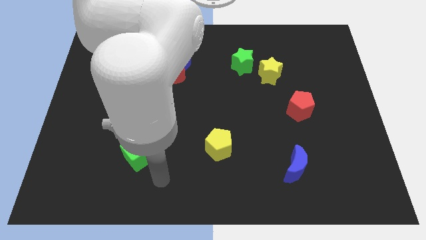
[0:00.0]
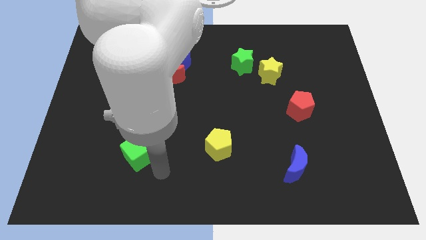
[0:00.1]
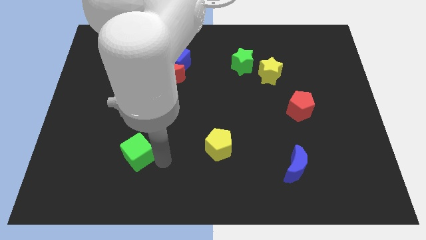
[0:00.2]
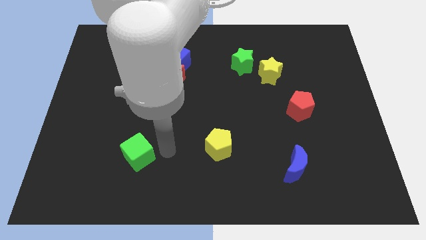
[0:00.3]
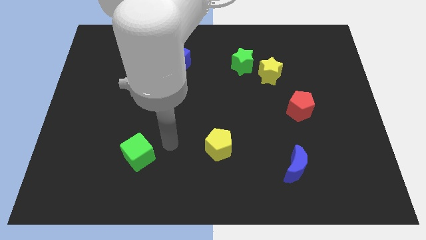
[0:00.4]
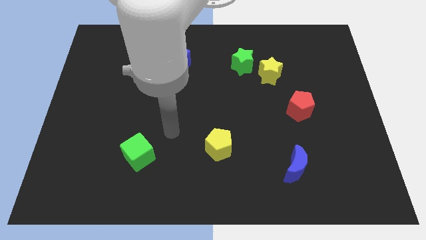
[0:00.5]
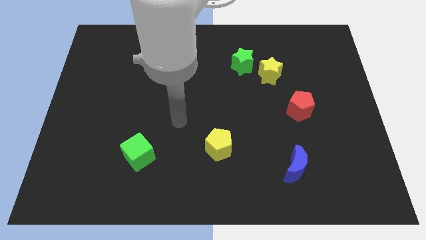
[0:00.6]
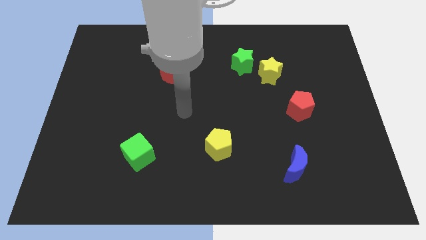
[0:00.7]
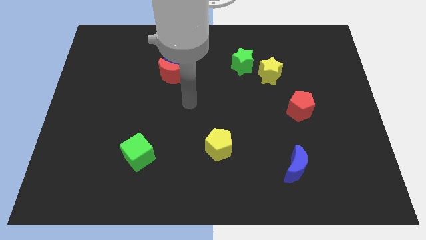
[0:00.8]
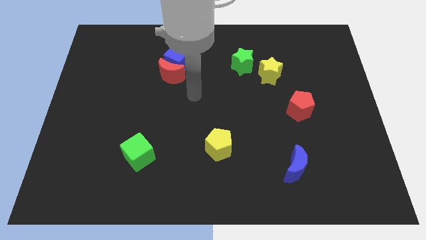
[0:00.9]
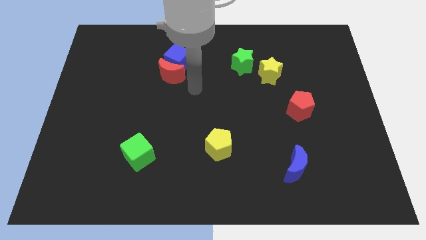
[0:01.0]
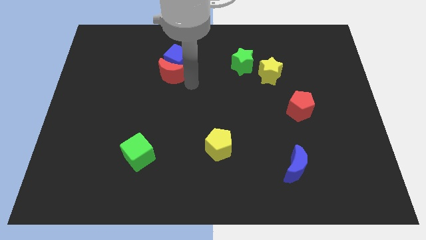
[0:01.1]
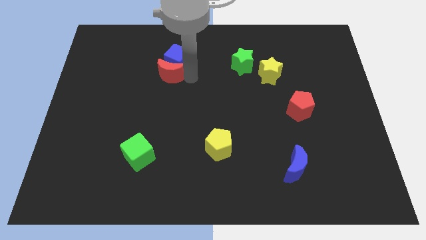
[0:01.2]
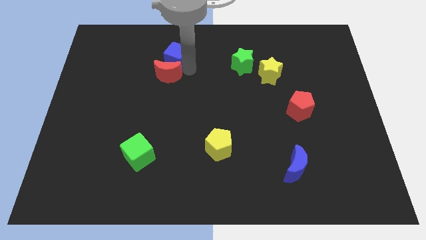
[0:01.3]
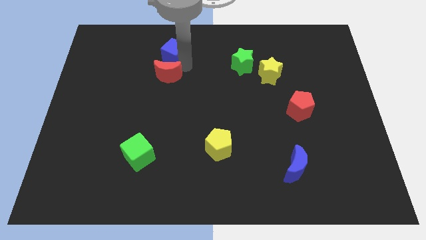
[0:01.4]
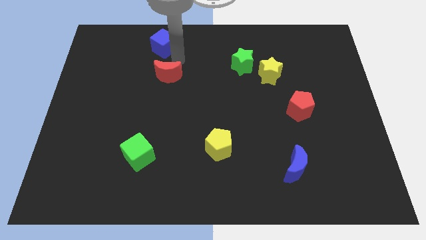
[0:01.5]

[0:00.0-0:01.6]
move the red moon away from the blue cube

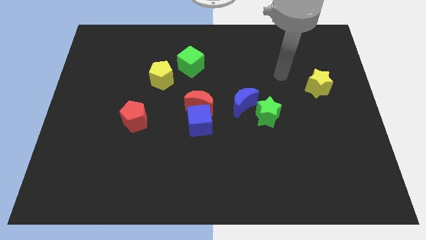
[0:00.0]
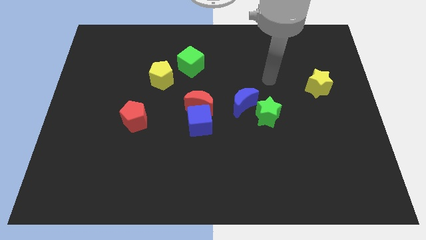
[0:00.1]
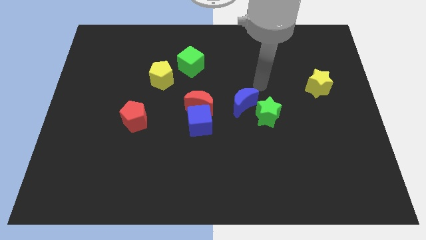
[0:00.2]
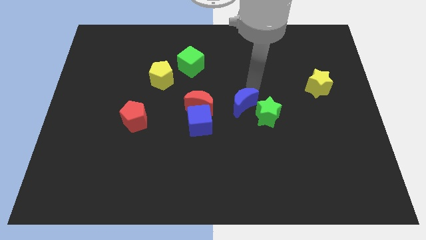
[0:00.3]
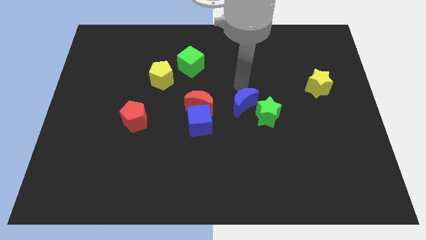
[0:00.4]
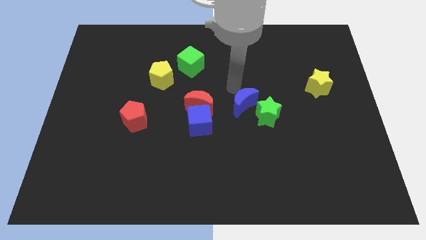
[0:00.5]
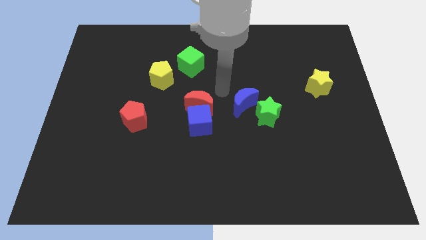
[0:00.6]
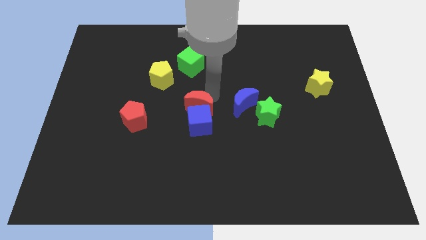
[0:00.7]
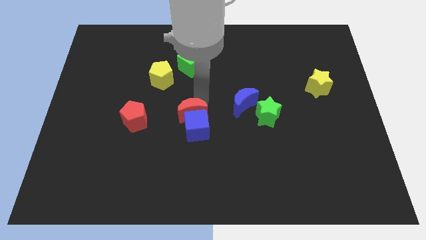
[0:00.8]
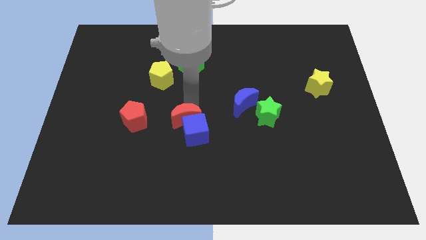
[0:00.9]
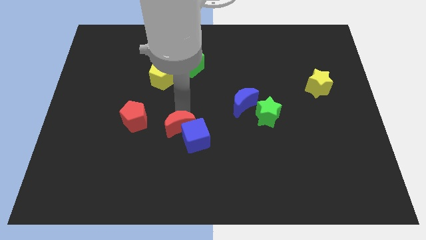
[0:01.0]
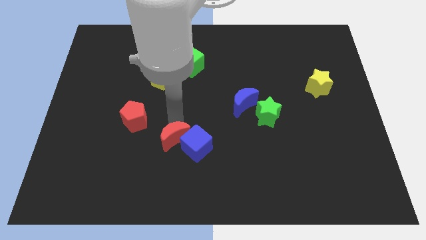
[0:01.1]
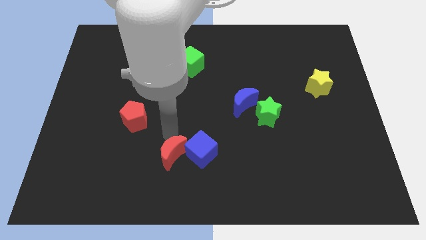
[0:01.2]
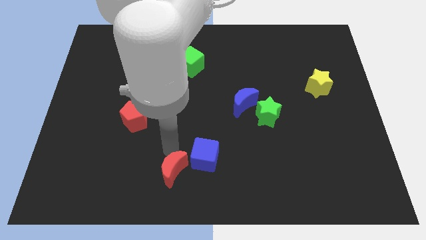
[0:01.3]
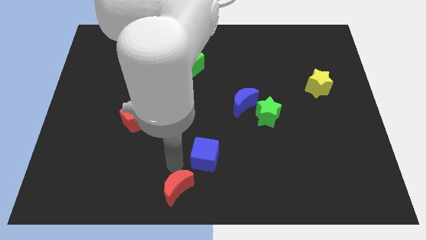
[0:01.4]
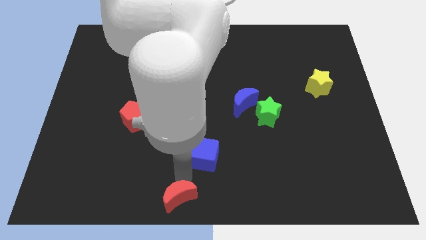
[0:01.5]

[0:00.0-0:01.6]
move the blue cube away from the red moon

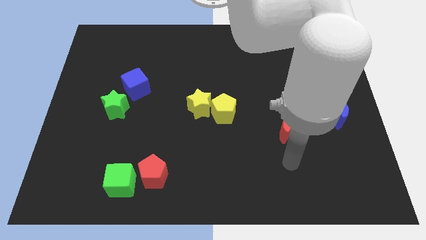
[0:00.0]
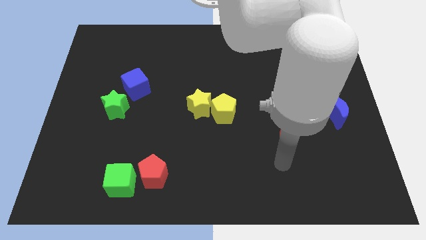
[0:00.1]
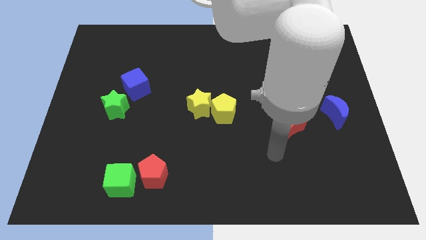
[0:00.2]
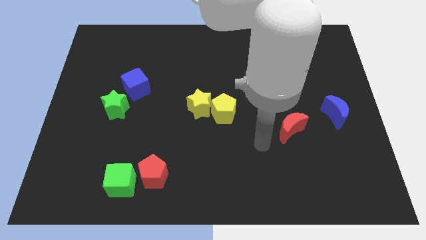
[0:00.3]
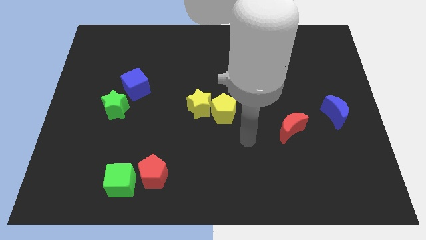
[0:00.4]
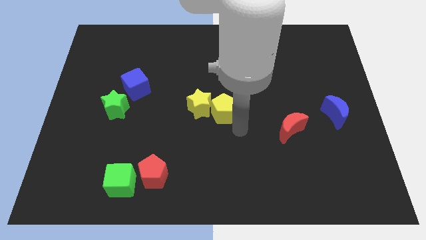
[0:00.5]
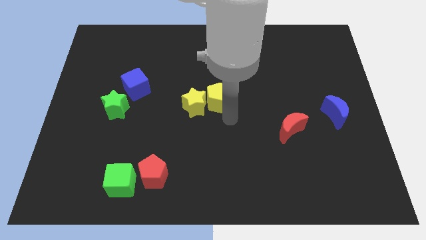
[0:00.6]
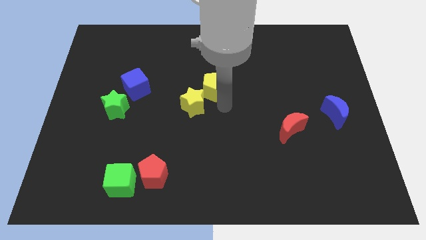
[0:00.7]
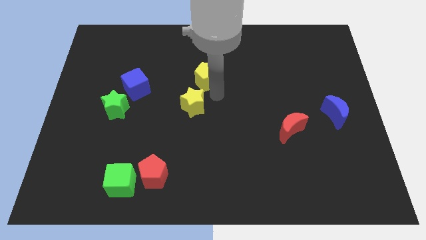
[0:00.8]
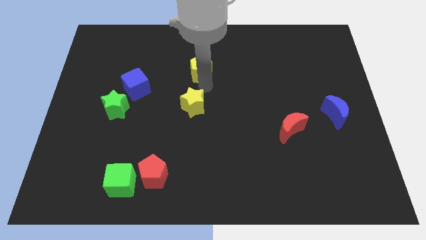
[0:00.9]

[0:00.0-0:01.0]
separate the yellow star from the yellow pentagon

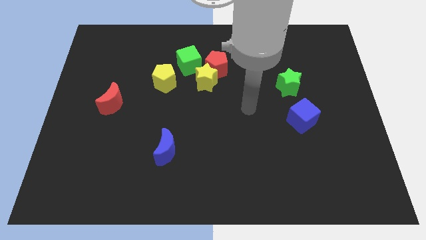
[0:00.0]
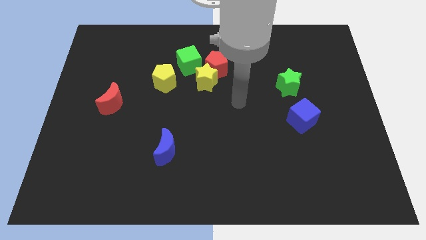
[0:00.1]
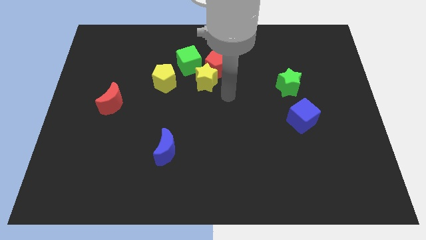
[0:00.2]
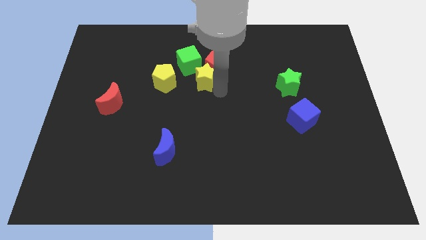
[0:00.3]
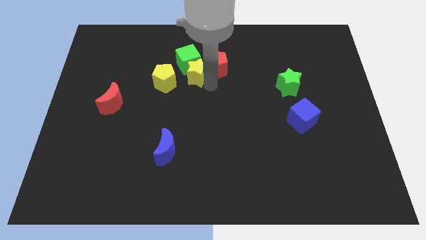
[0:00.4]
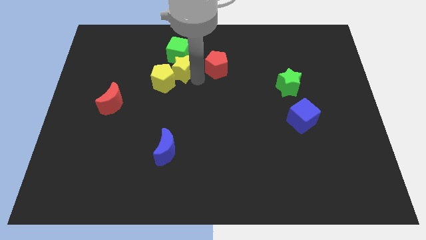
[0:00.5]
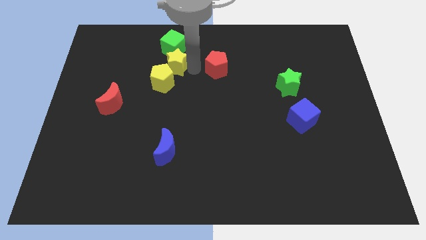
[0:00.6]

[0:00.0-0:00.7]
pull the red pentagon apart from the yellow star and green cube

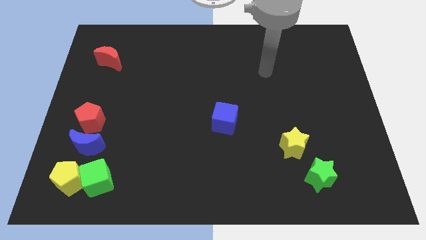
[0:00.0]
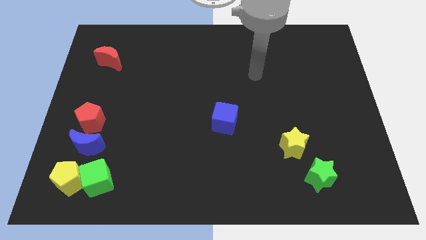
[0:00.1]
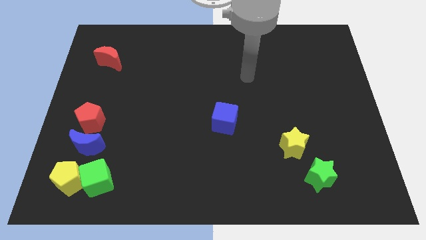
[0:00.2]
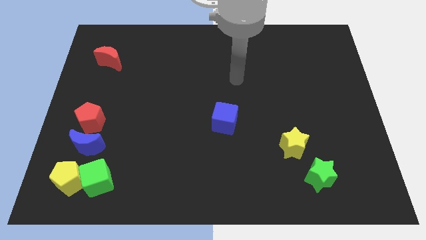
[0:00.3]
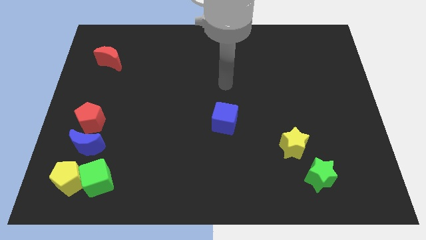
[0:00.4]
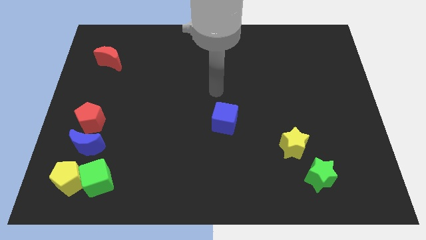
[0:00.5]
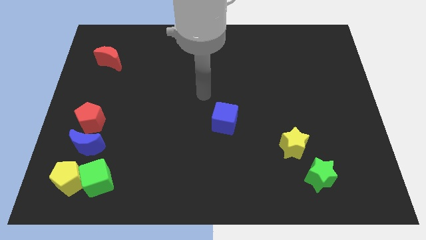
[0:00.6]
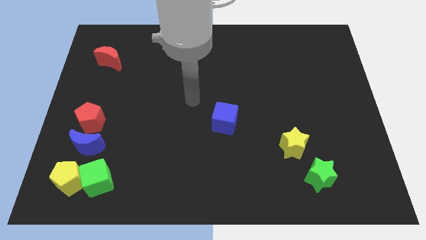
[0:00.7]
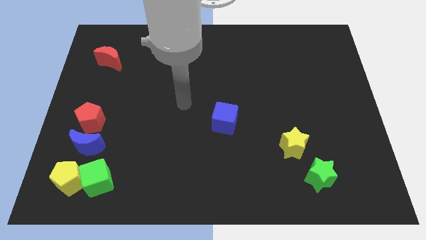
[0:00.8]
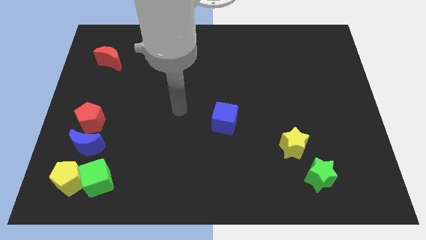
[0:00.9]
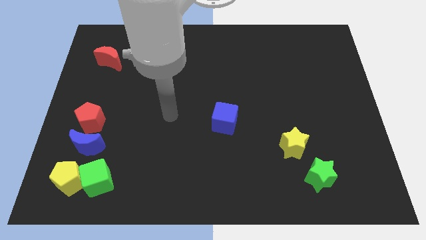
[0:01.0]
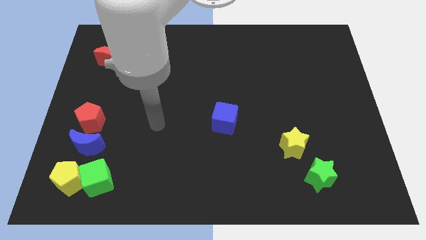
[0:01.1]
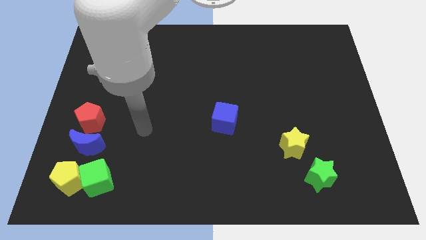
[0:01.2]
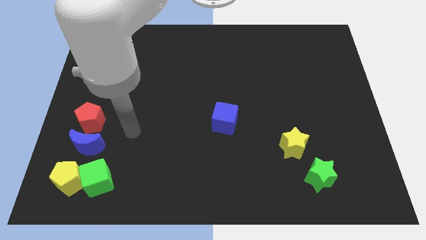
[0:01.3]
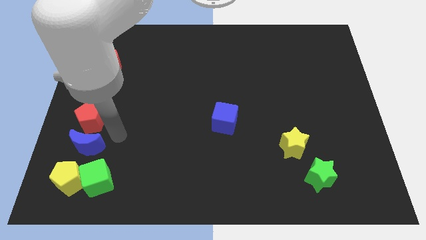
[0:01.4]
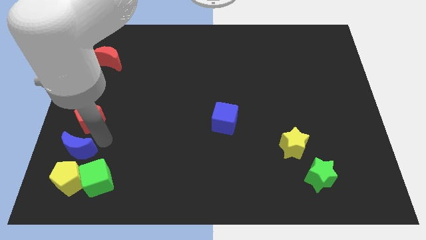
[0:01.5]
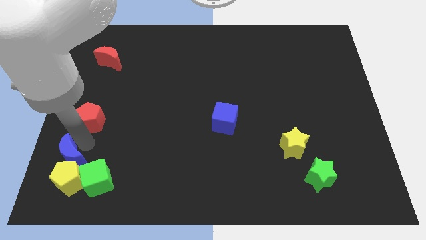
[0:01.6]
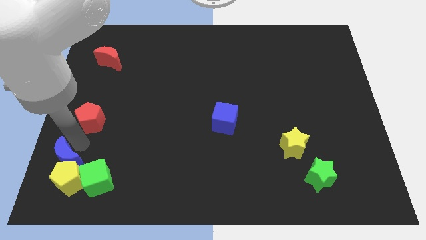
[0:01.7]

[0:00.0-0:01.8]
pull the red pentagon apart from the blue moon

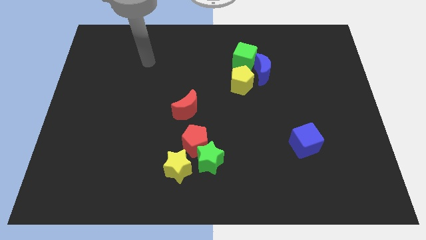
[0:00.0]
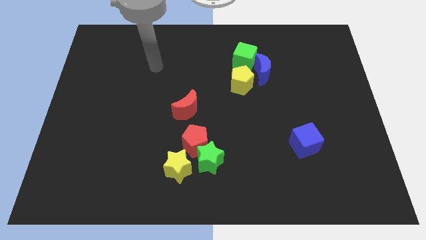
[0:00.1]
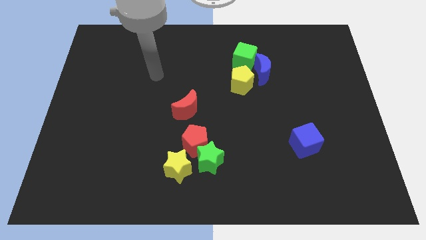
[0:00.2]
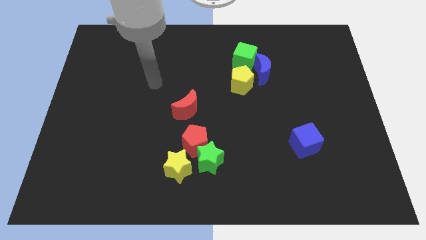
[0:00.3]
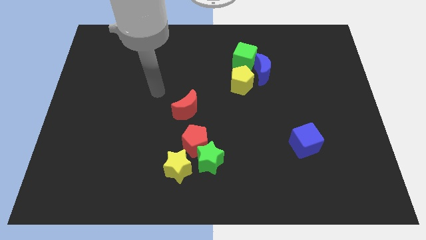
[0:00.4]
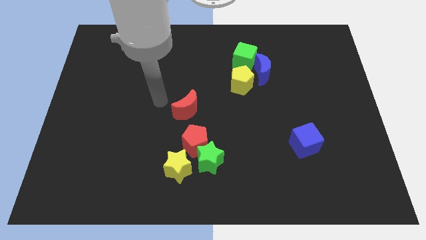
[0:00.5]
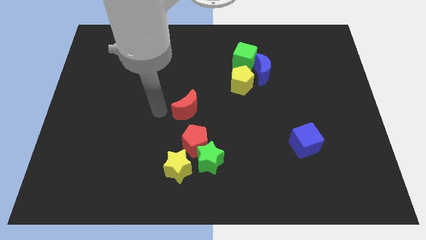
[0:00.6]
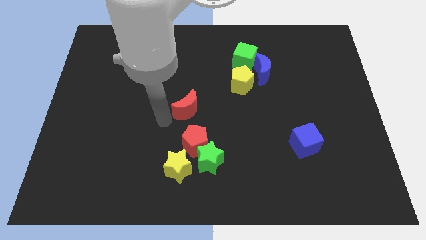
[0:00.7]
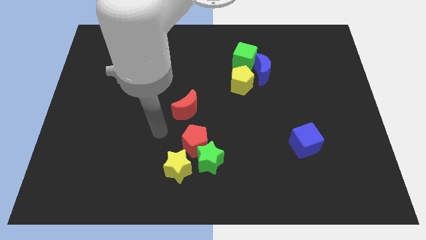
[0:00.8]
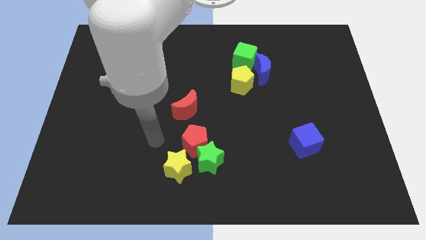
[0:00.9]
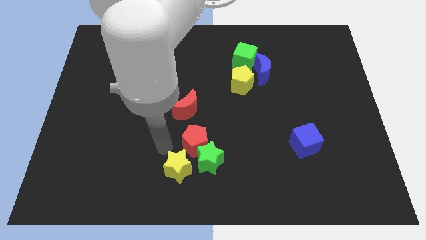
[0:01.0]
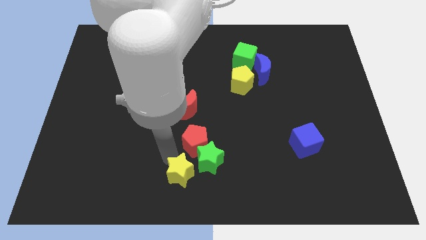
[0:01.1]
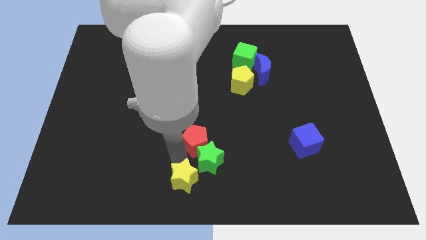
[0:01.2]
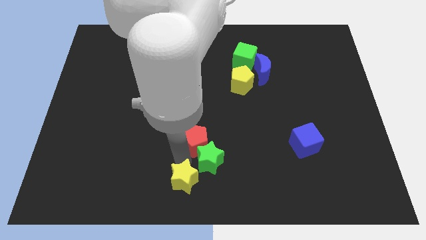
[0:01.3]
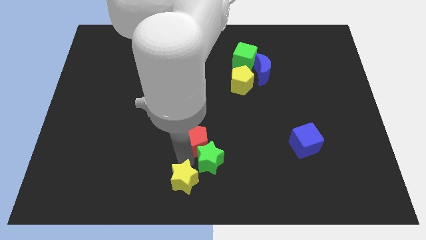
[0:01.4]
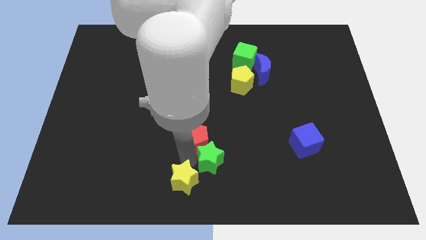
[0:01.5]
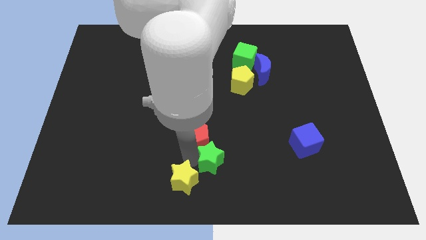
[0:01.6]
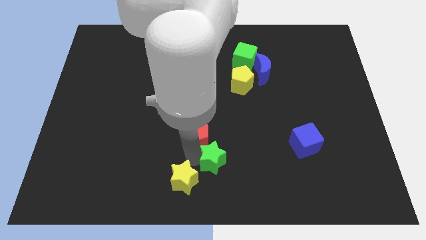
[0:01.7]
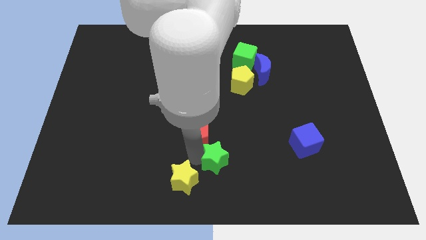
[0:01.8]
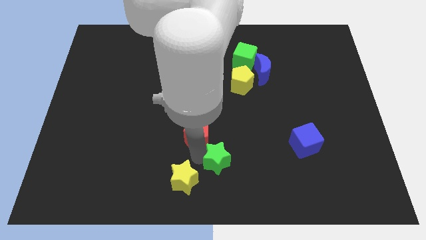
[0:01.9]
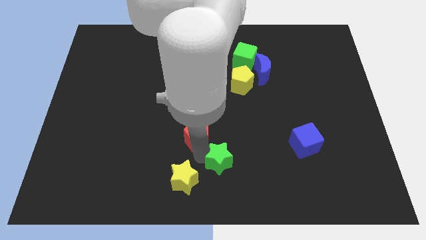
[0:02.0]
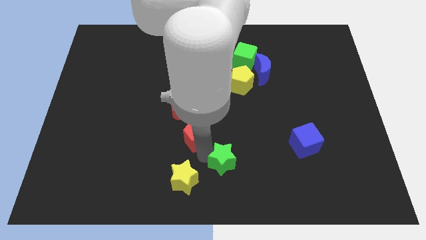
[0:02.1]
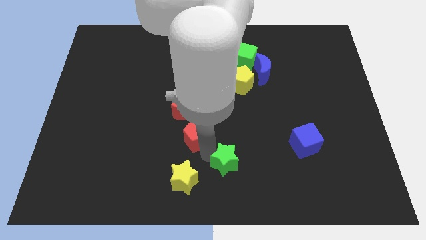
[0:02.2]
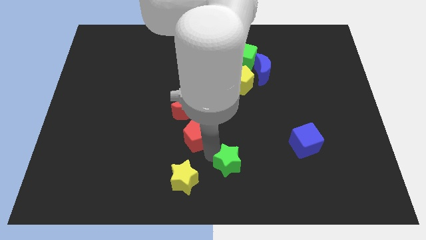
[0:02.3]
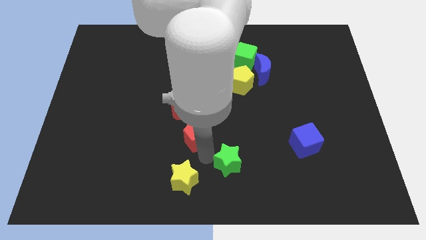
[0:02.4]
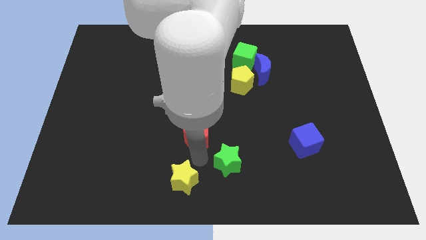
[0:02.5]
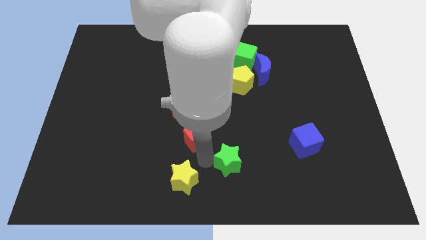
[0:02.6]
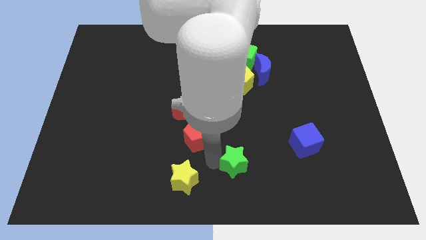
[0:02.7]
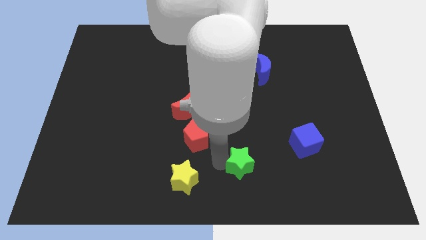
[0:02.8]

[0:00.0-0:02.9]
pull the green star apart from the red pentagon and yellow star
